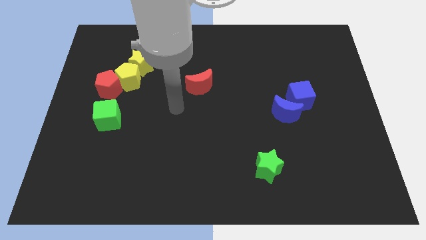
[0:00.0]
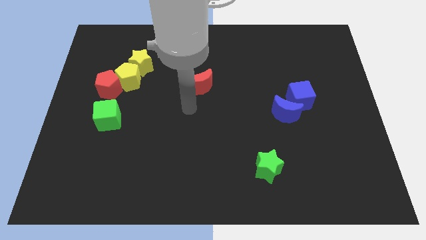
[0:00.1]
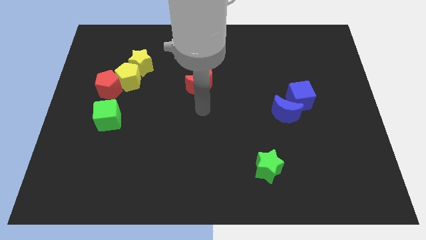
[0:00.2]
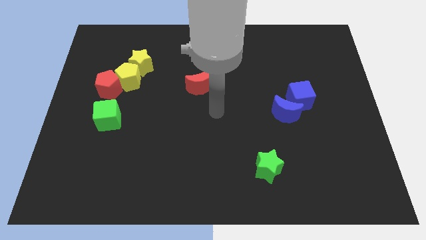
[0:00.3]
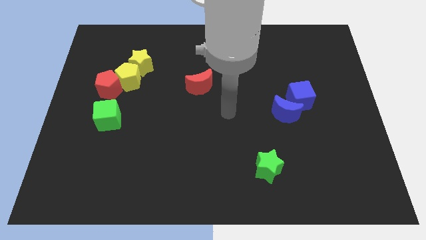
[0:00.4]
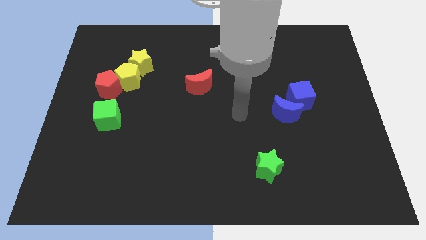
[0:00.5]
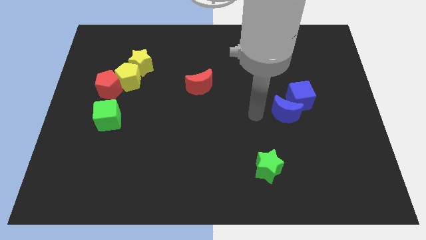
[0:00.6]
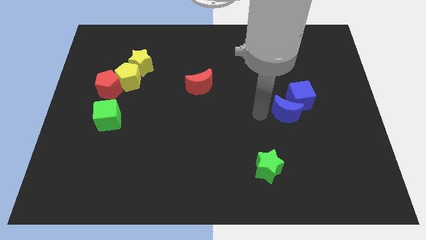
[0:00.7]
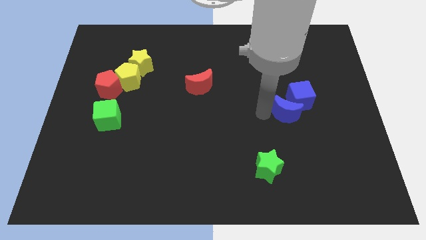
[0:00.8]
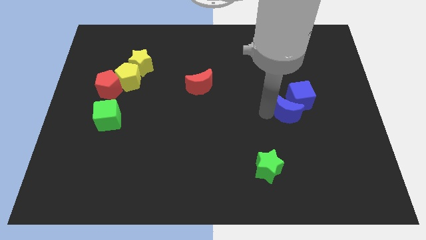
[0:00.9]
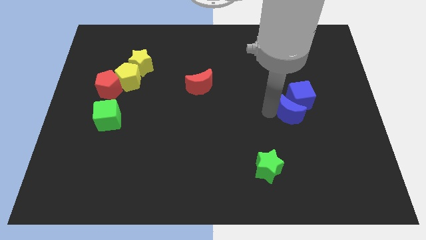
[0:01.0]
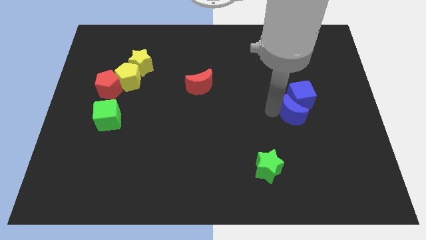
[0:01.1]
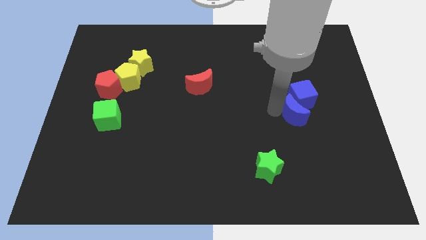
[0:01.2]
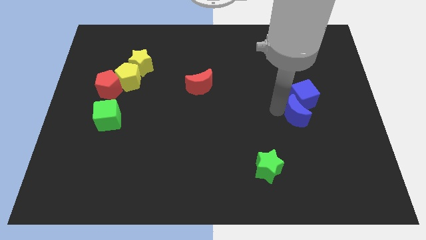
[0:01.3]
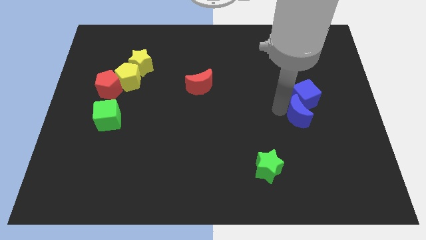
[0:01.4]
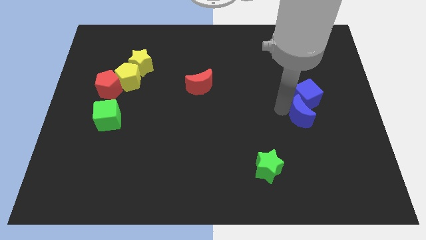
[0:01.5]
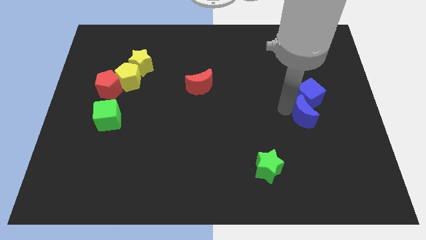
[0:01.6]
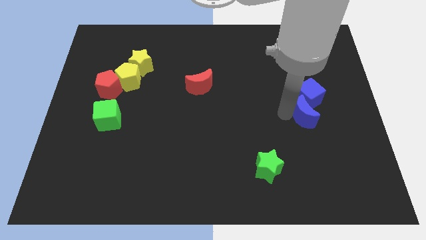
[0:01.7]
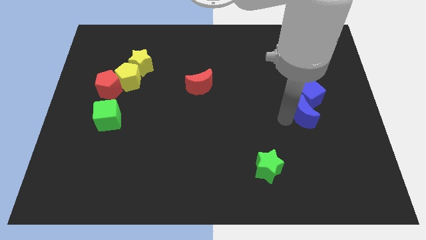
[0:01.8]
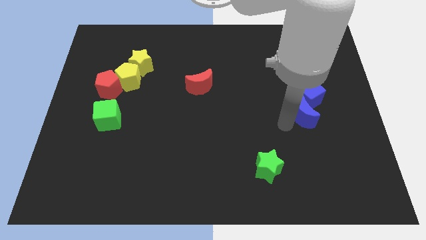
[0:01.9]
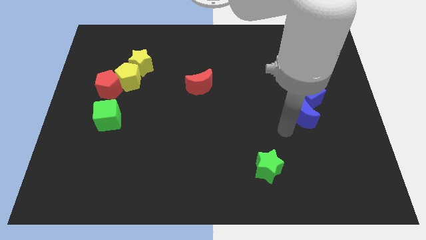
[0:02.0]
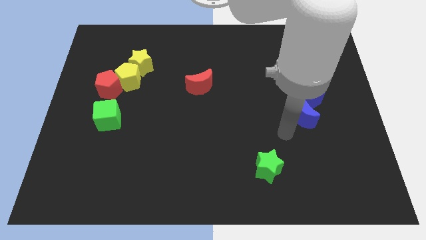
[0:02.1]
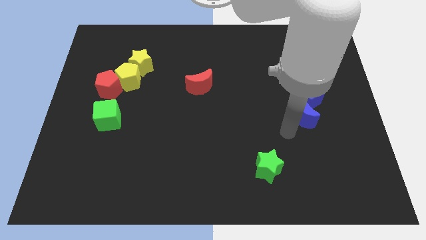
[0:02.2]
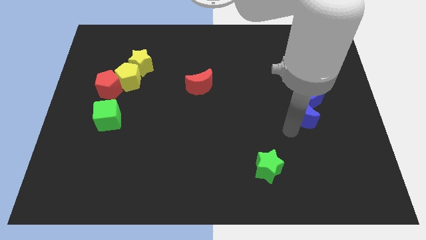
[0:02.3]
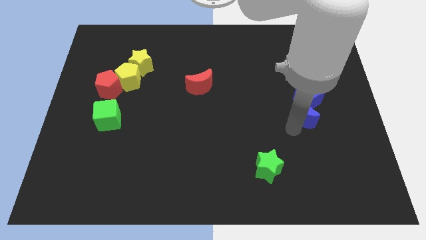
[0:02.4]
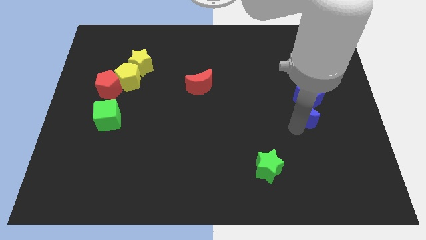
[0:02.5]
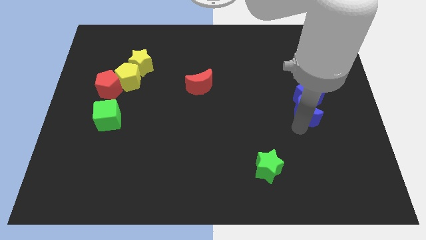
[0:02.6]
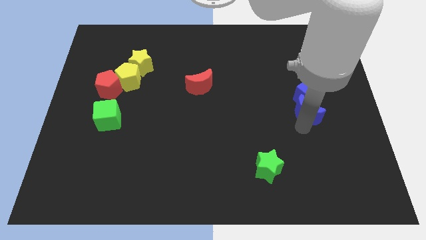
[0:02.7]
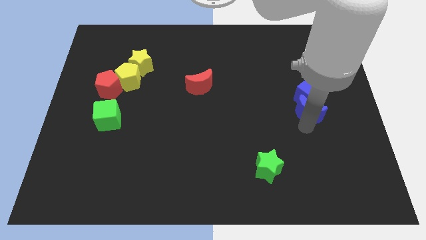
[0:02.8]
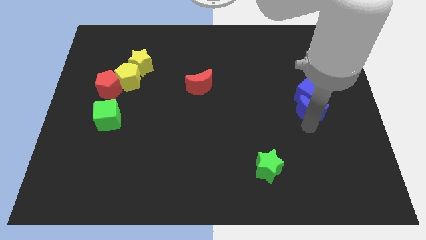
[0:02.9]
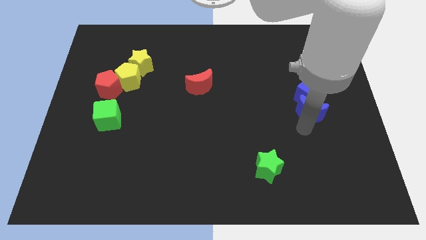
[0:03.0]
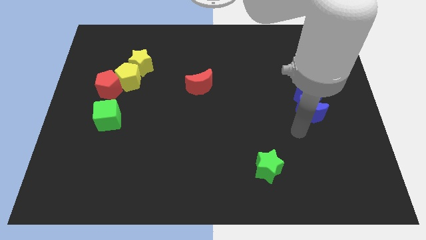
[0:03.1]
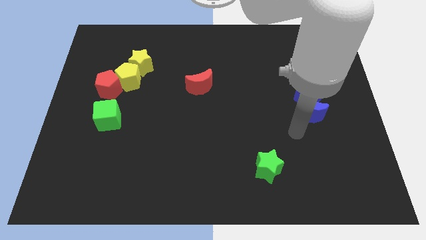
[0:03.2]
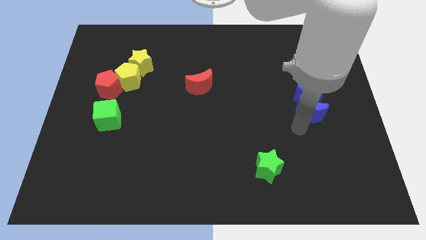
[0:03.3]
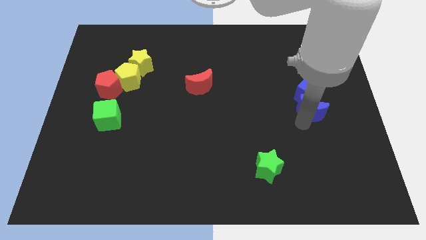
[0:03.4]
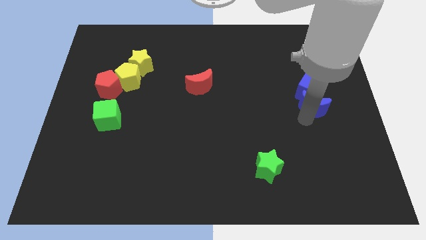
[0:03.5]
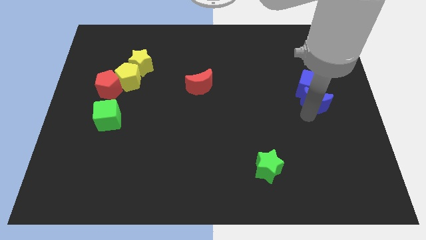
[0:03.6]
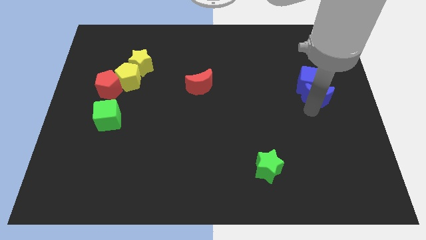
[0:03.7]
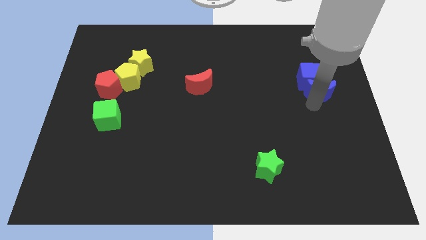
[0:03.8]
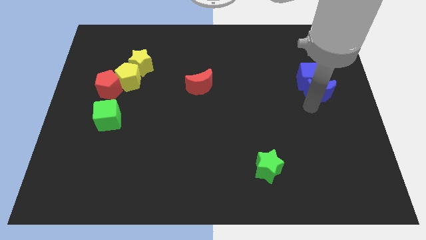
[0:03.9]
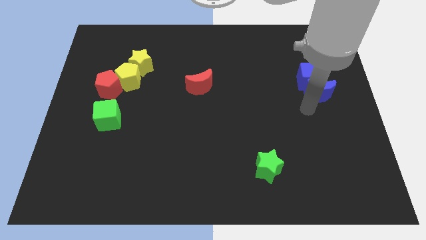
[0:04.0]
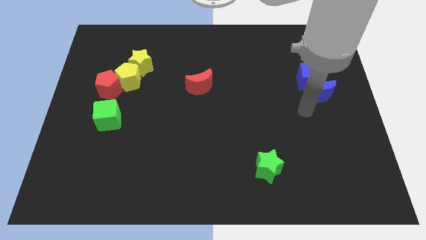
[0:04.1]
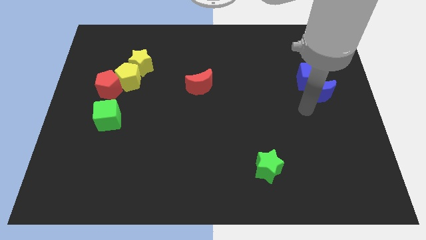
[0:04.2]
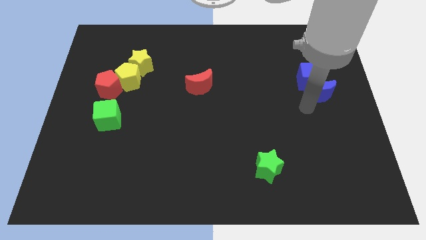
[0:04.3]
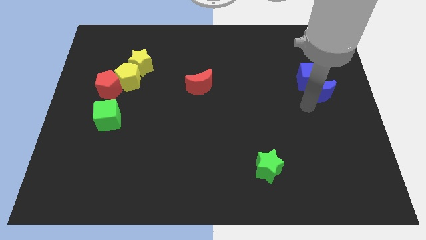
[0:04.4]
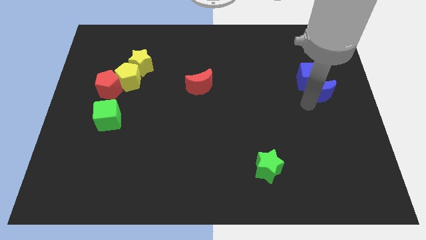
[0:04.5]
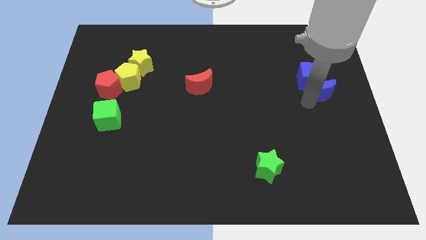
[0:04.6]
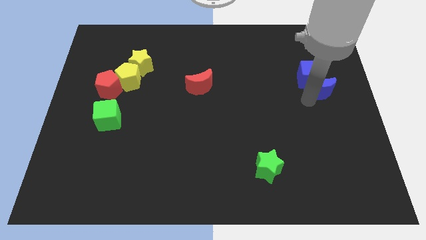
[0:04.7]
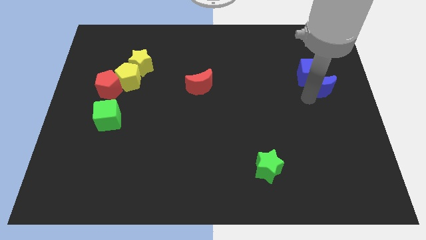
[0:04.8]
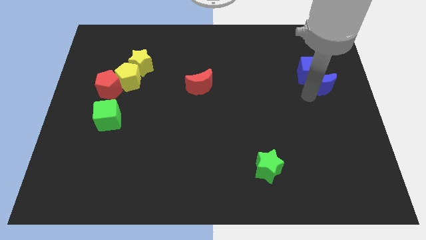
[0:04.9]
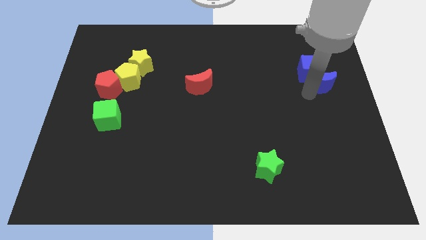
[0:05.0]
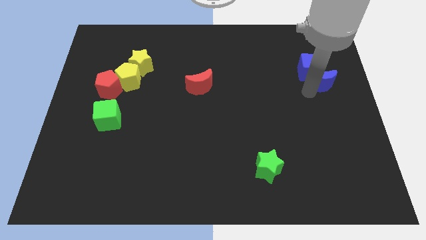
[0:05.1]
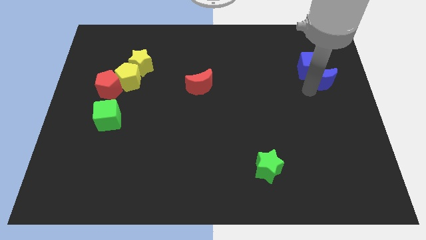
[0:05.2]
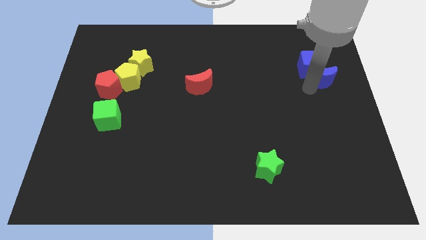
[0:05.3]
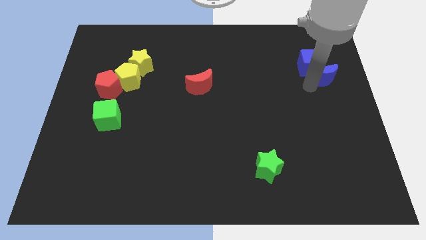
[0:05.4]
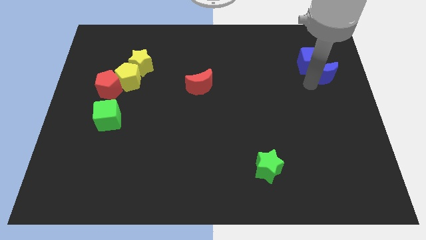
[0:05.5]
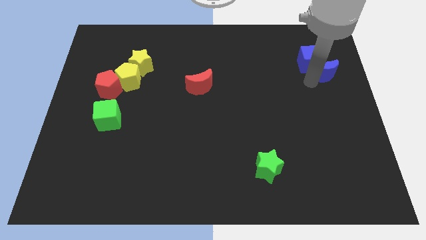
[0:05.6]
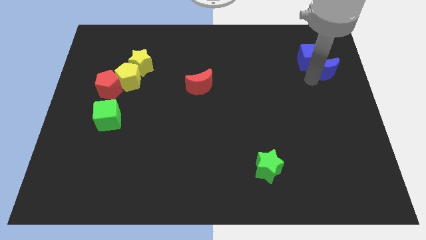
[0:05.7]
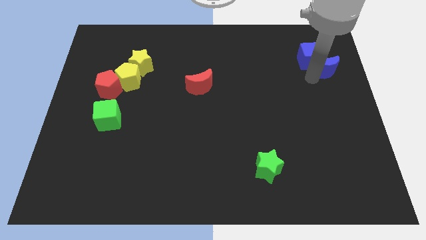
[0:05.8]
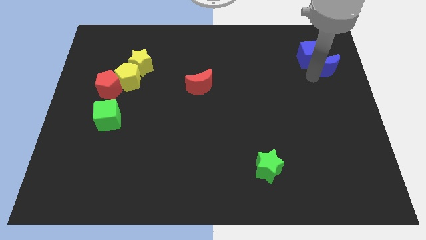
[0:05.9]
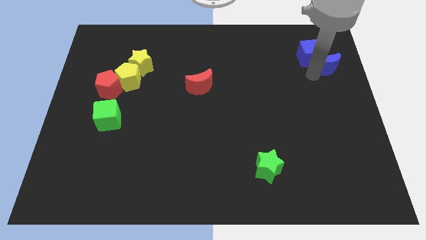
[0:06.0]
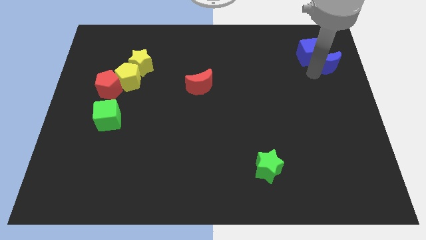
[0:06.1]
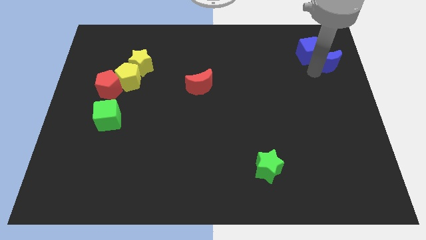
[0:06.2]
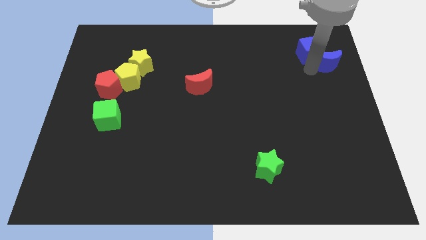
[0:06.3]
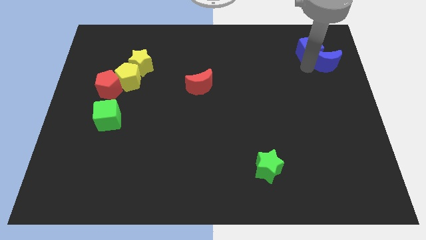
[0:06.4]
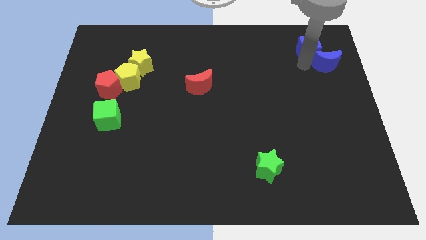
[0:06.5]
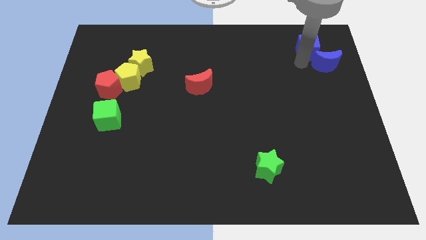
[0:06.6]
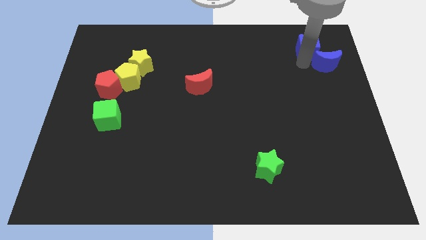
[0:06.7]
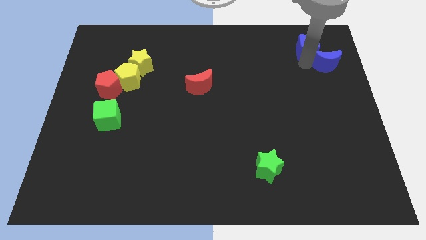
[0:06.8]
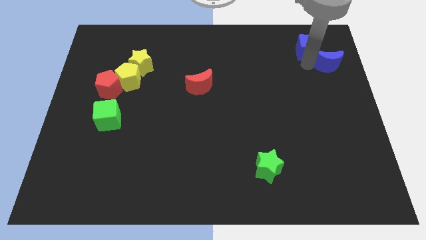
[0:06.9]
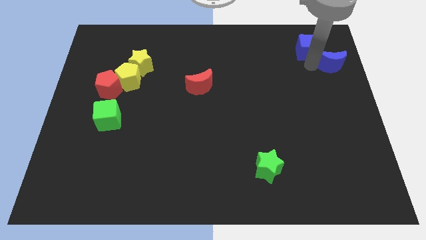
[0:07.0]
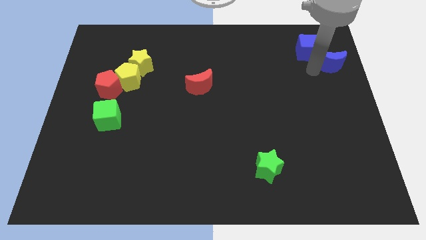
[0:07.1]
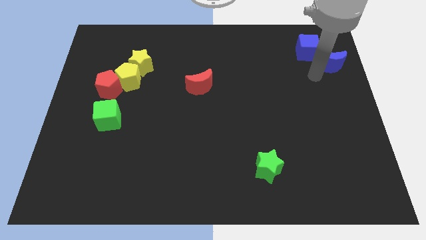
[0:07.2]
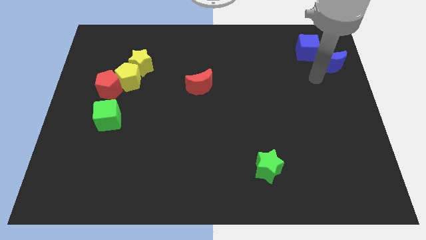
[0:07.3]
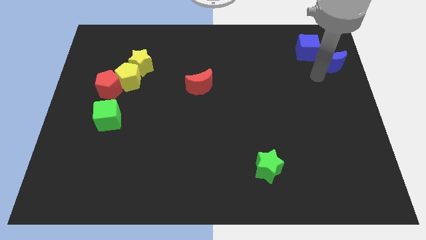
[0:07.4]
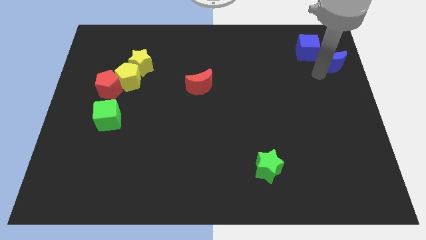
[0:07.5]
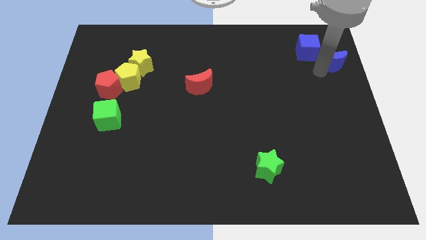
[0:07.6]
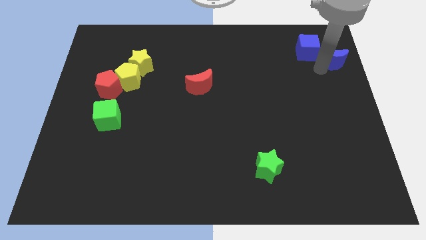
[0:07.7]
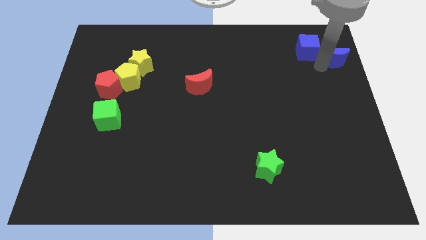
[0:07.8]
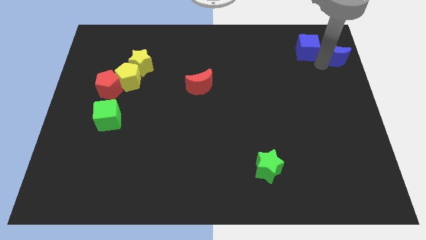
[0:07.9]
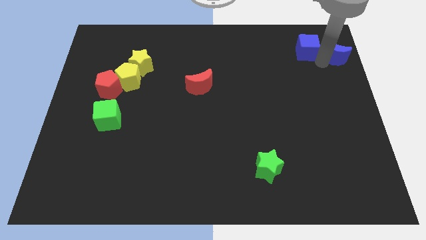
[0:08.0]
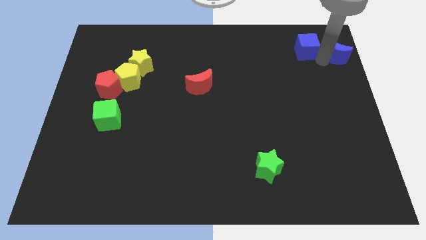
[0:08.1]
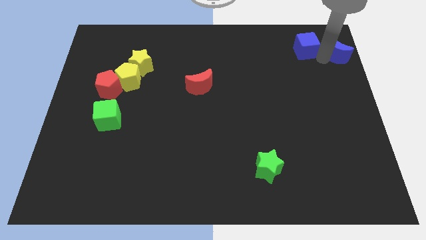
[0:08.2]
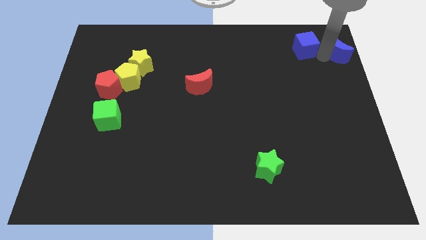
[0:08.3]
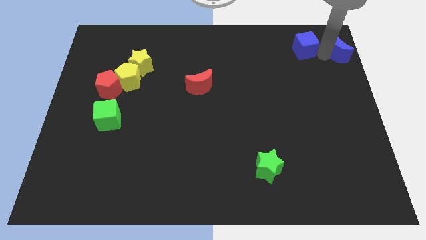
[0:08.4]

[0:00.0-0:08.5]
slide the blue moon to the top right
